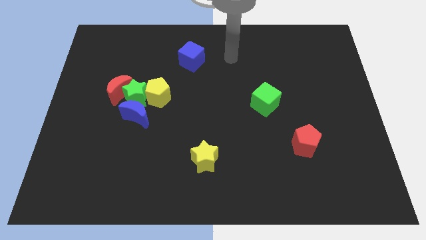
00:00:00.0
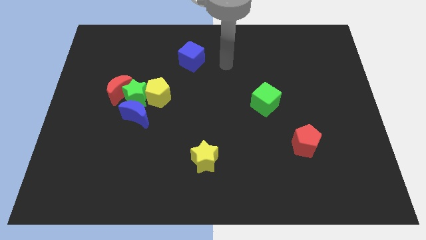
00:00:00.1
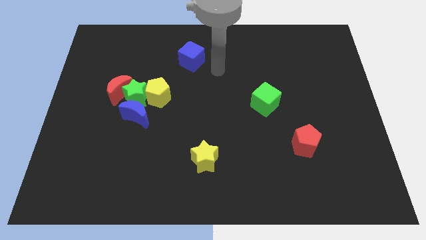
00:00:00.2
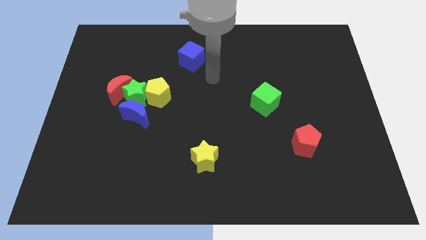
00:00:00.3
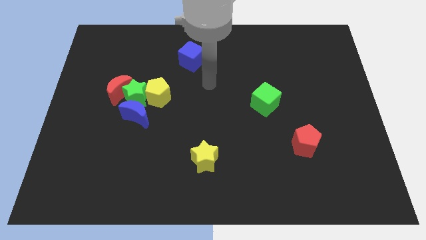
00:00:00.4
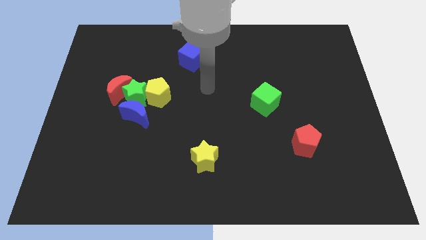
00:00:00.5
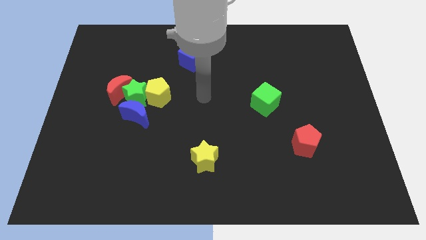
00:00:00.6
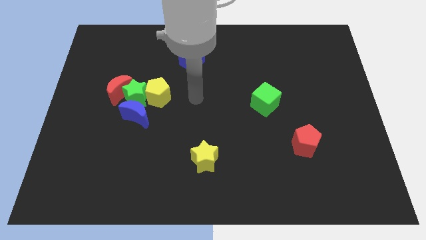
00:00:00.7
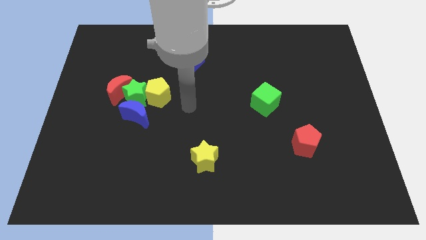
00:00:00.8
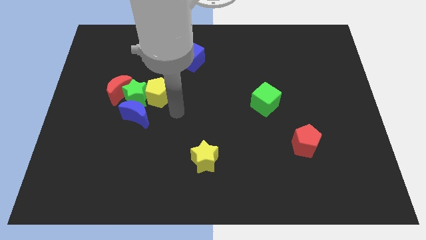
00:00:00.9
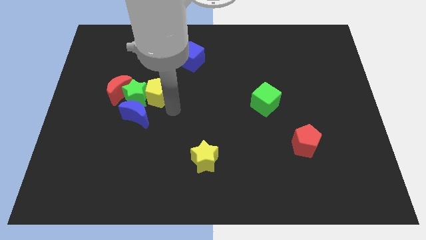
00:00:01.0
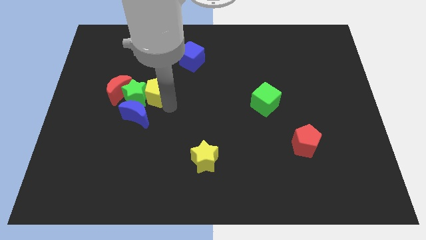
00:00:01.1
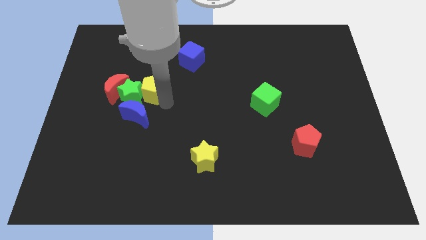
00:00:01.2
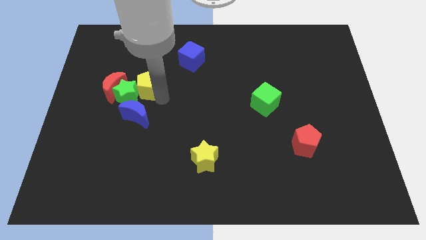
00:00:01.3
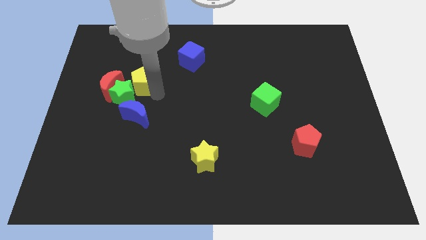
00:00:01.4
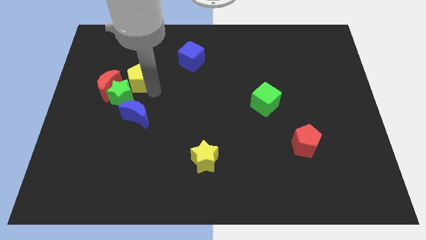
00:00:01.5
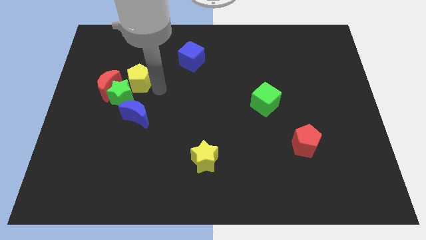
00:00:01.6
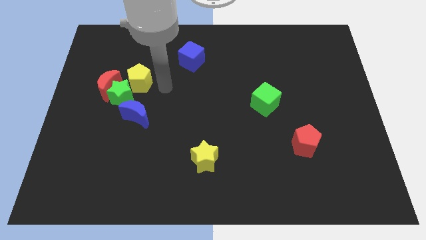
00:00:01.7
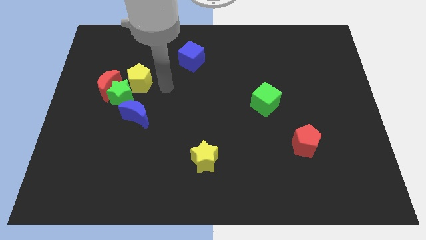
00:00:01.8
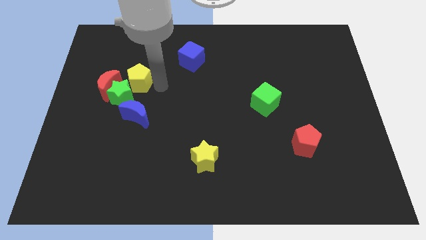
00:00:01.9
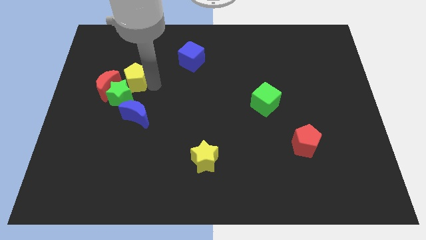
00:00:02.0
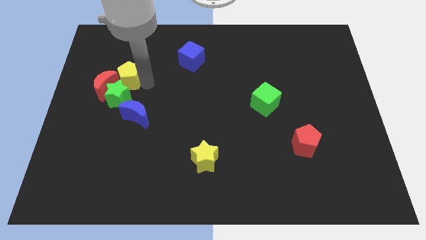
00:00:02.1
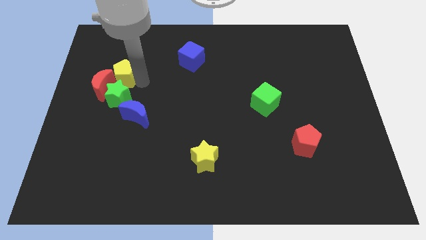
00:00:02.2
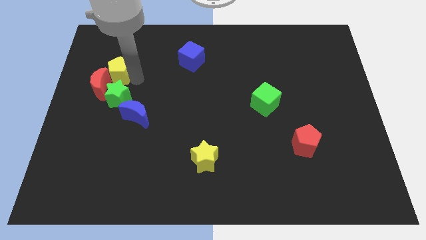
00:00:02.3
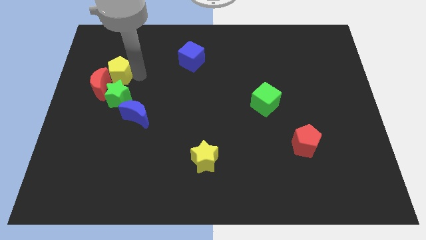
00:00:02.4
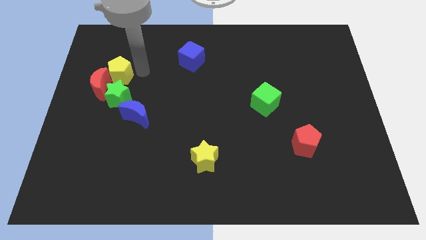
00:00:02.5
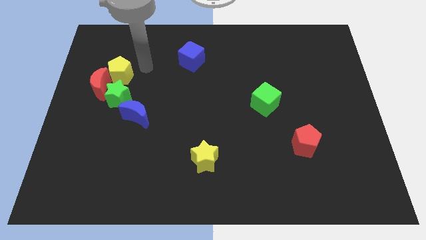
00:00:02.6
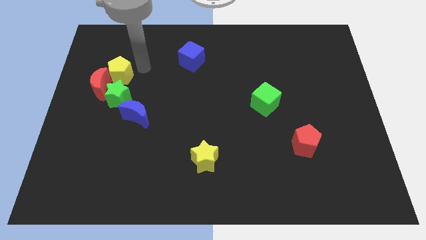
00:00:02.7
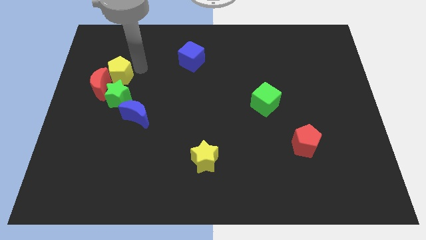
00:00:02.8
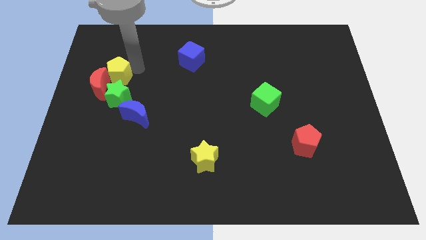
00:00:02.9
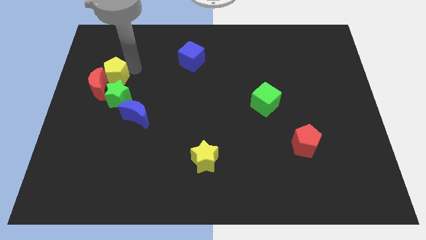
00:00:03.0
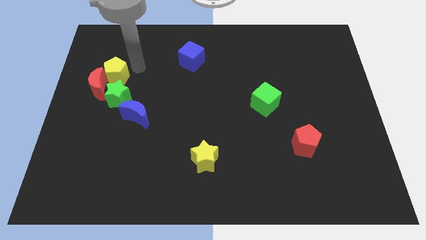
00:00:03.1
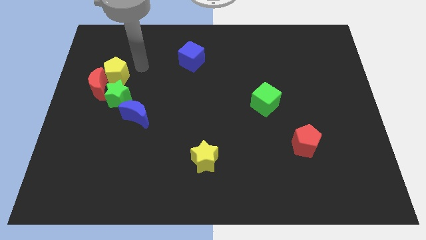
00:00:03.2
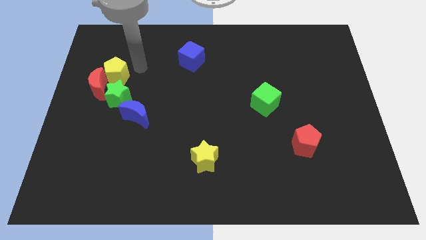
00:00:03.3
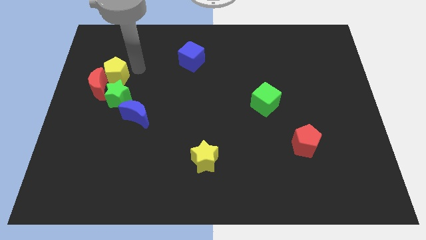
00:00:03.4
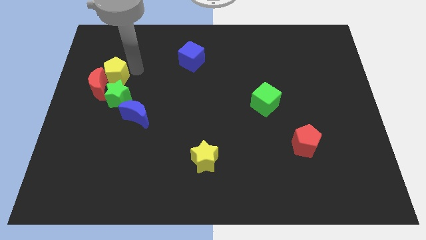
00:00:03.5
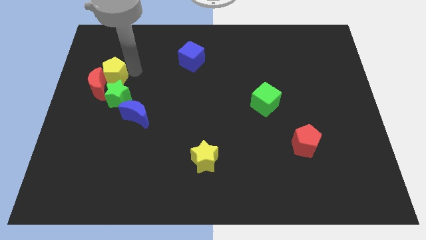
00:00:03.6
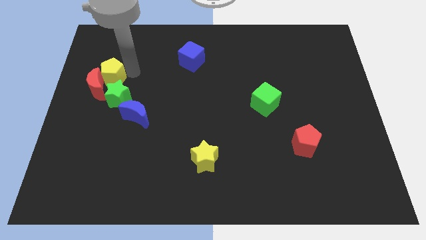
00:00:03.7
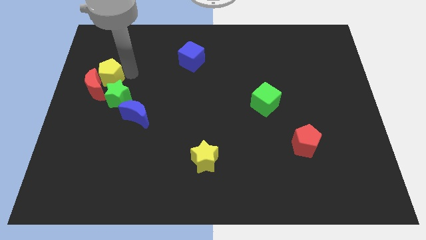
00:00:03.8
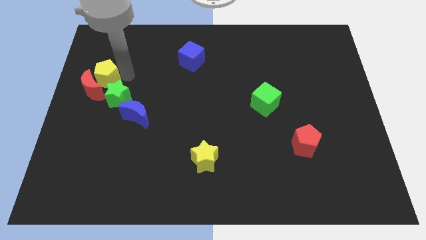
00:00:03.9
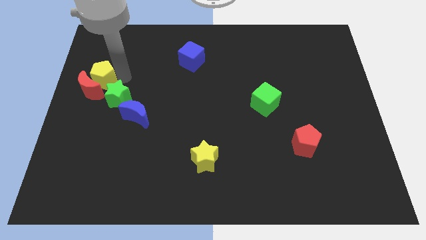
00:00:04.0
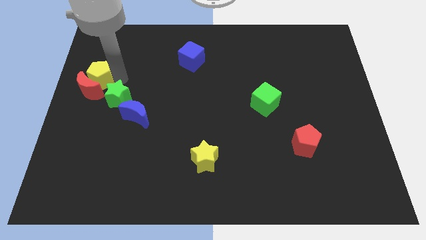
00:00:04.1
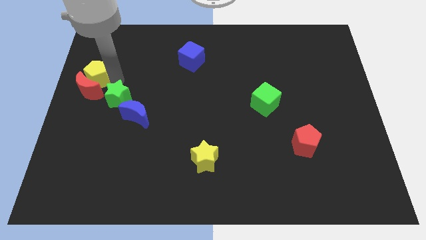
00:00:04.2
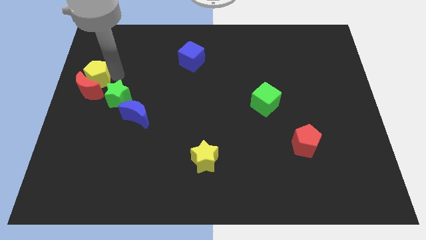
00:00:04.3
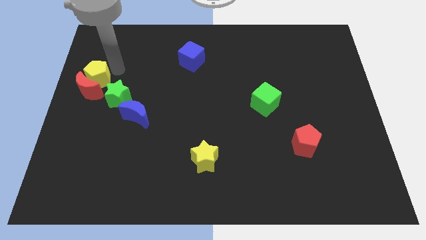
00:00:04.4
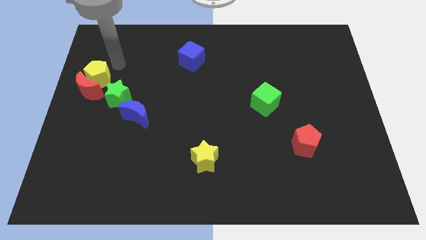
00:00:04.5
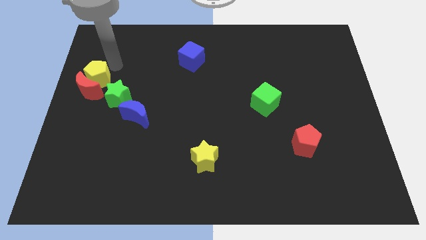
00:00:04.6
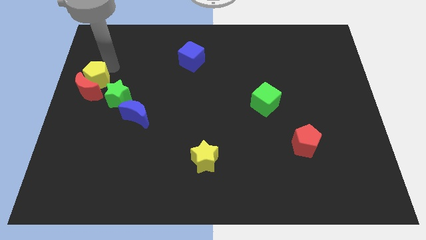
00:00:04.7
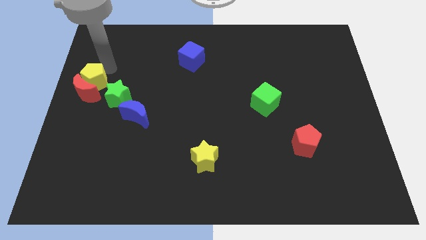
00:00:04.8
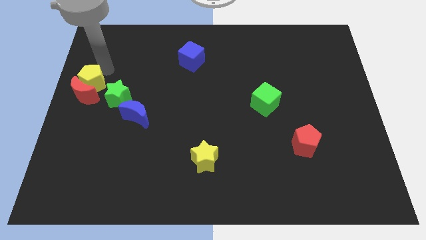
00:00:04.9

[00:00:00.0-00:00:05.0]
move the yellow pentagon left of the green star

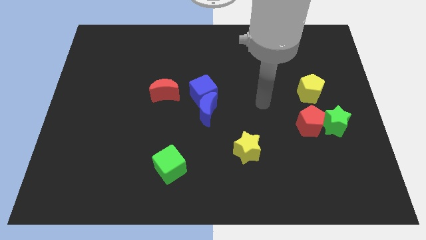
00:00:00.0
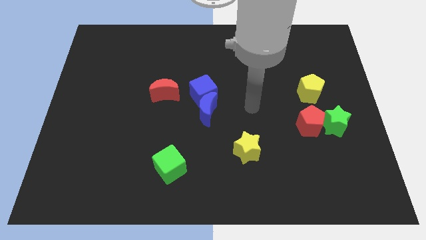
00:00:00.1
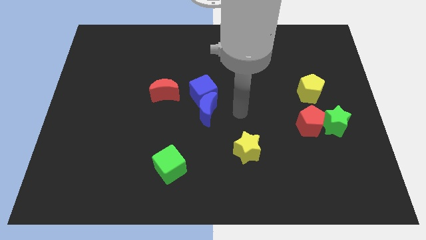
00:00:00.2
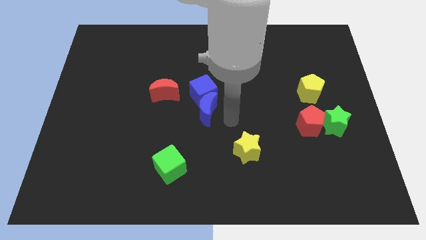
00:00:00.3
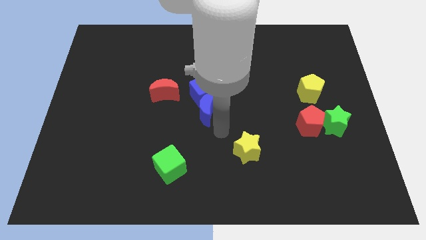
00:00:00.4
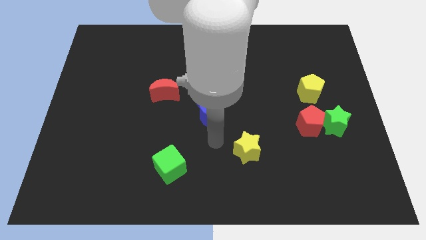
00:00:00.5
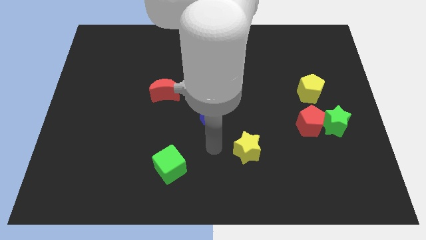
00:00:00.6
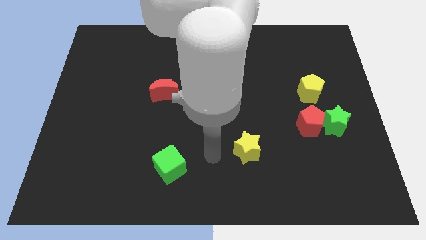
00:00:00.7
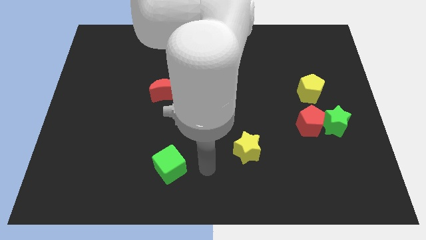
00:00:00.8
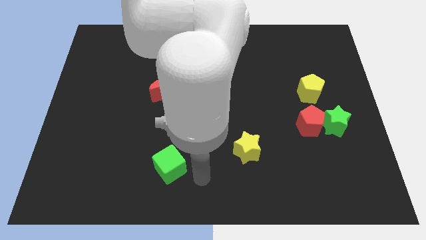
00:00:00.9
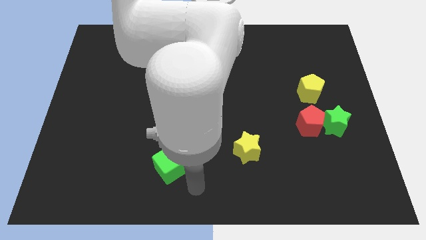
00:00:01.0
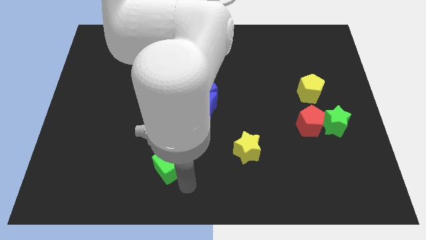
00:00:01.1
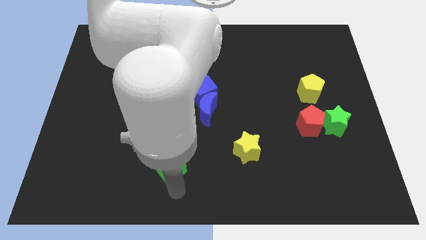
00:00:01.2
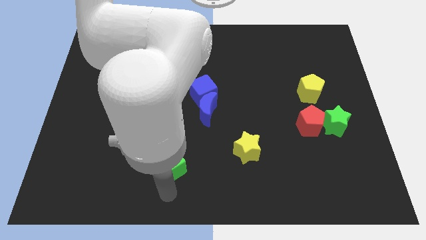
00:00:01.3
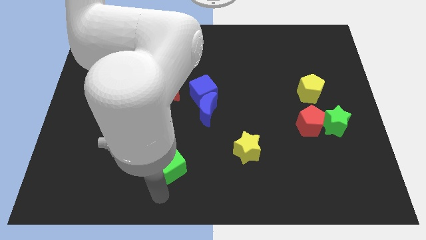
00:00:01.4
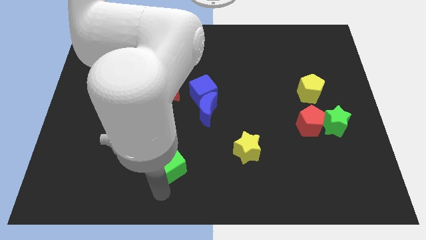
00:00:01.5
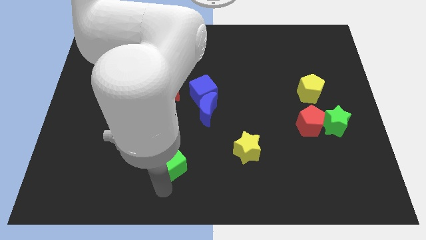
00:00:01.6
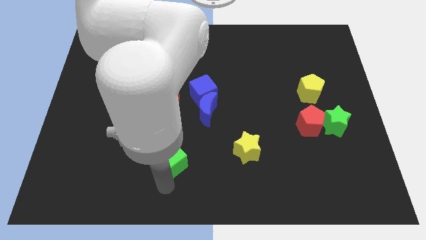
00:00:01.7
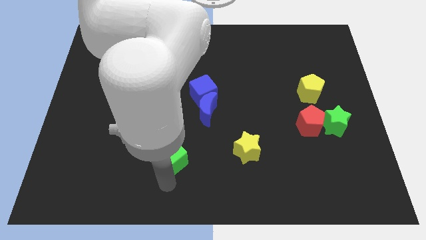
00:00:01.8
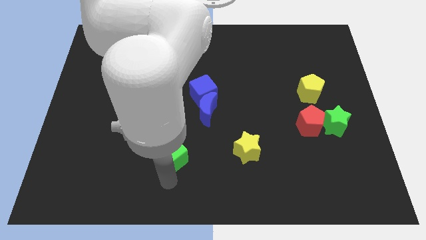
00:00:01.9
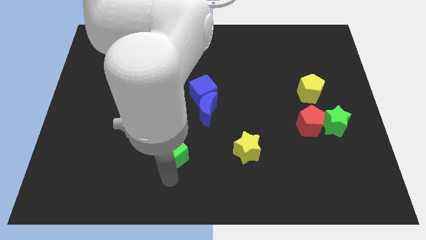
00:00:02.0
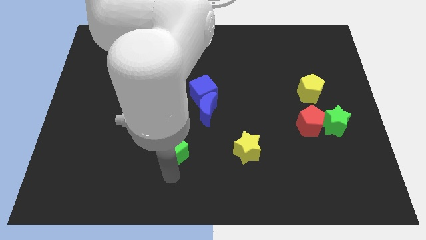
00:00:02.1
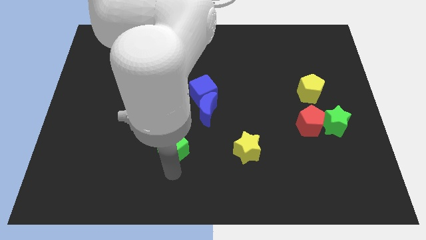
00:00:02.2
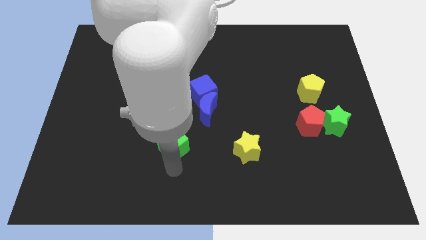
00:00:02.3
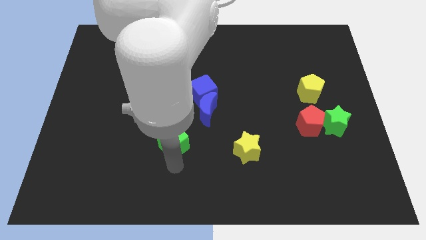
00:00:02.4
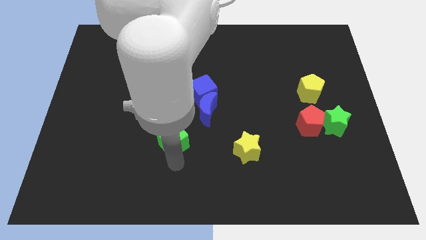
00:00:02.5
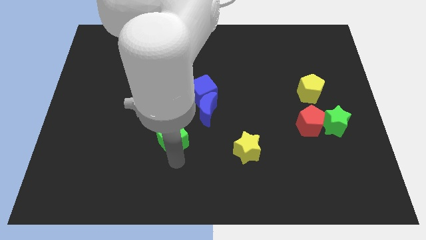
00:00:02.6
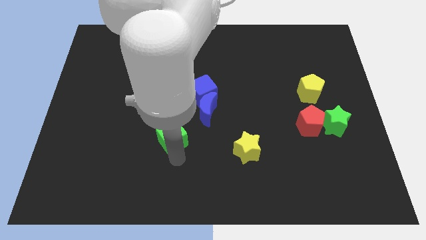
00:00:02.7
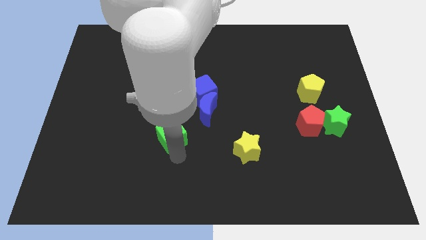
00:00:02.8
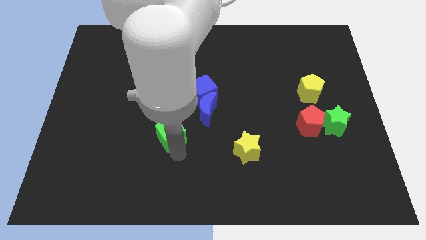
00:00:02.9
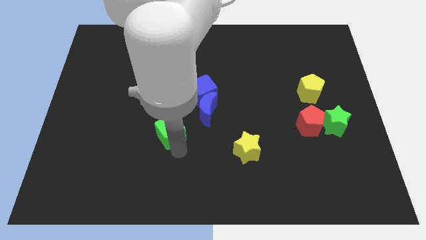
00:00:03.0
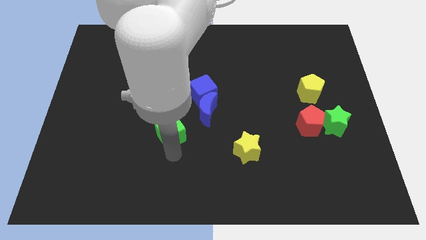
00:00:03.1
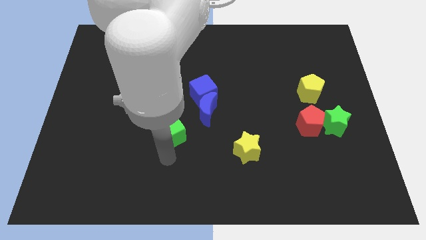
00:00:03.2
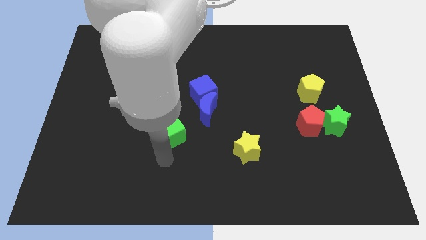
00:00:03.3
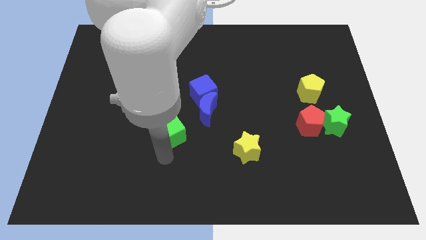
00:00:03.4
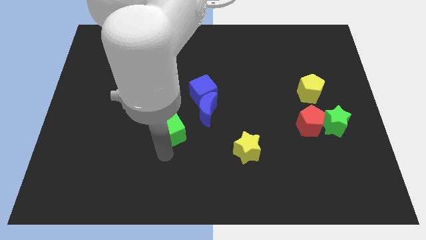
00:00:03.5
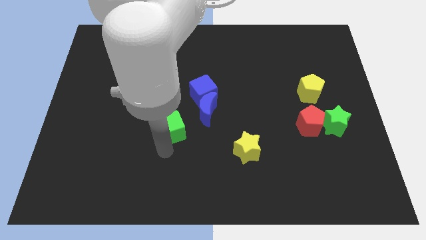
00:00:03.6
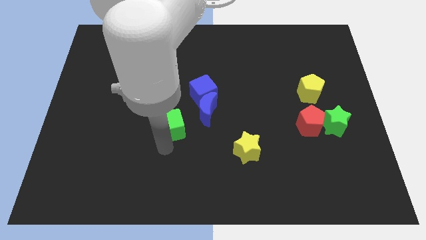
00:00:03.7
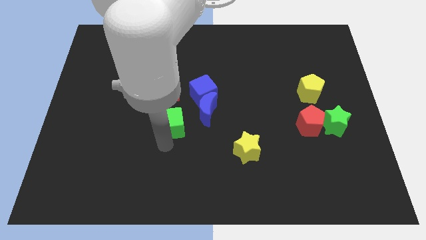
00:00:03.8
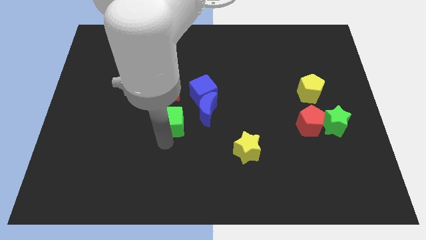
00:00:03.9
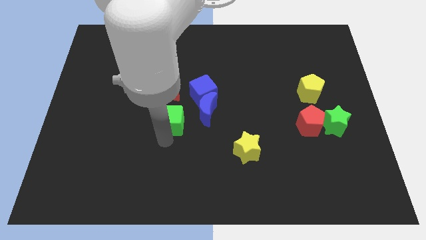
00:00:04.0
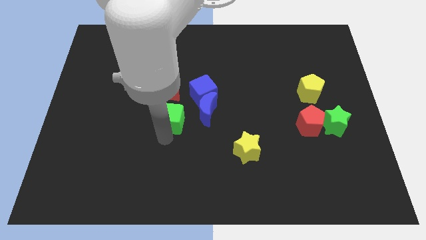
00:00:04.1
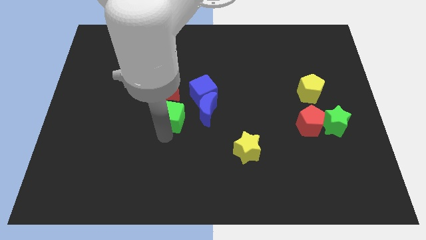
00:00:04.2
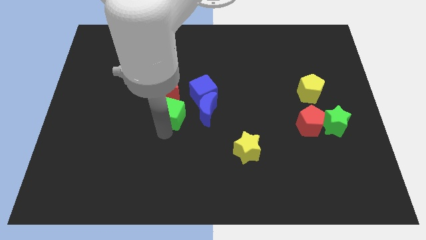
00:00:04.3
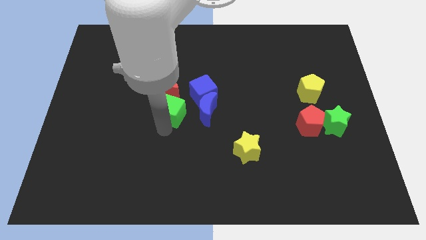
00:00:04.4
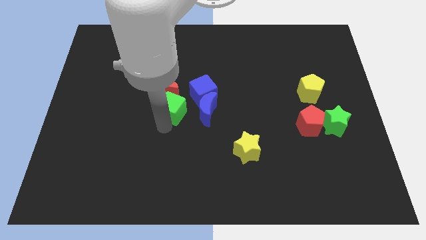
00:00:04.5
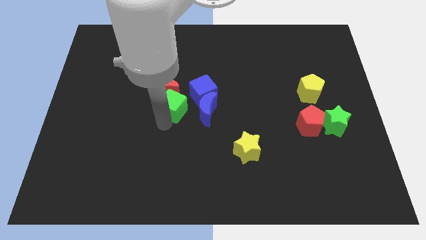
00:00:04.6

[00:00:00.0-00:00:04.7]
slide the green cube to the top left of the blue moon
